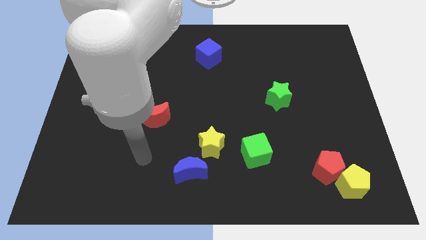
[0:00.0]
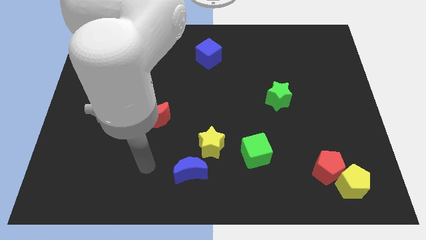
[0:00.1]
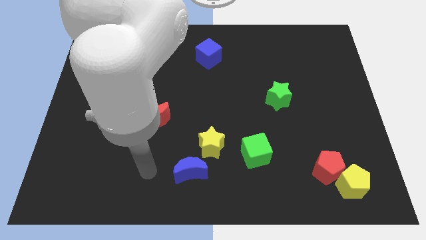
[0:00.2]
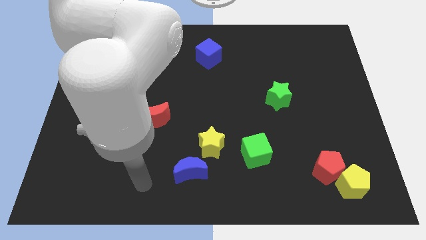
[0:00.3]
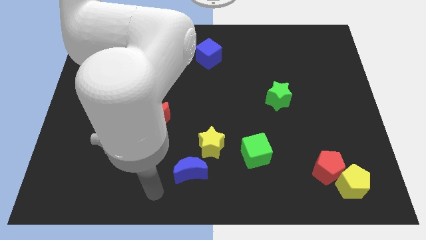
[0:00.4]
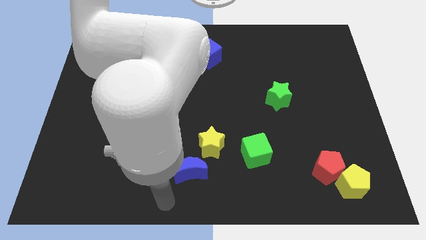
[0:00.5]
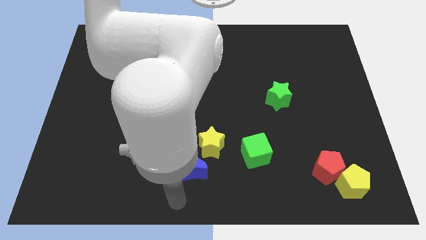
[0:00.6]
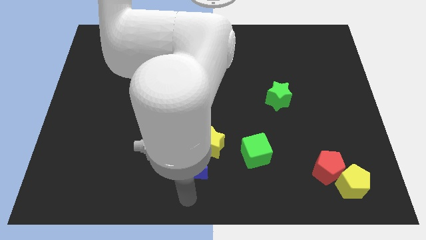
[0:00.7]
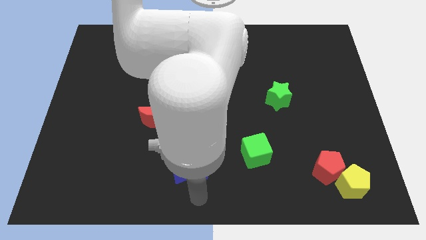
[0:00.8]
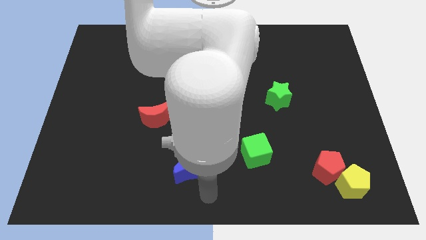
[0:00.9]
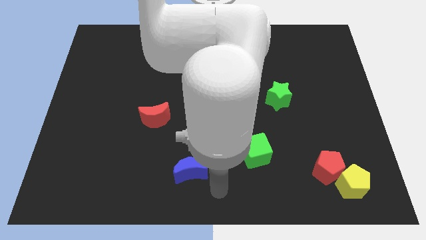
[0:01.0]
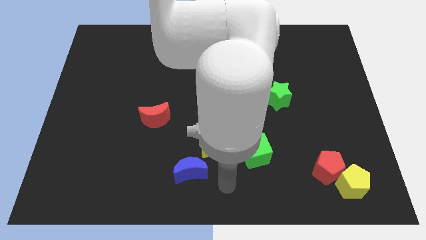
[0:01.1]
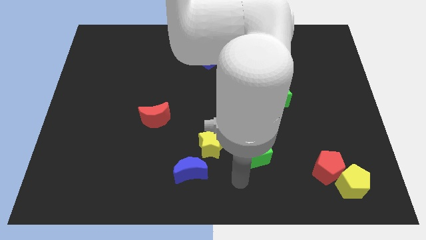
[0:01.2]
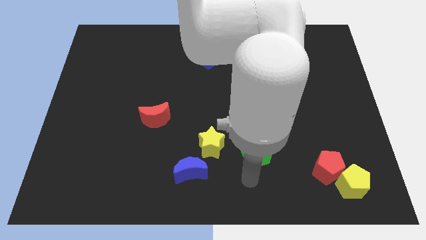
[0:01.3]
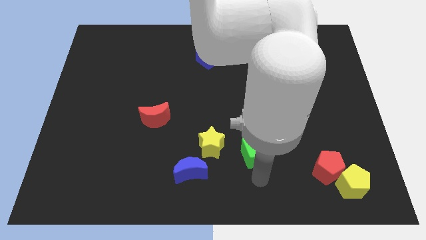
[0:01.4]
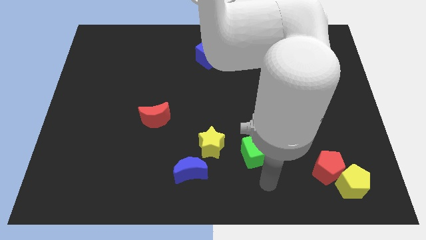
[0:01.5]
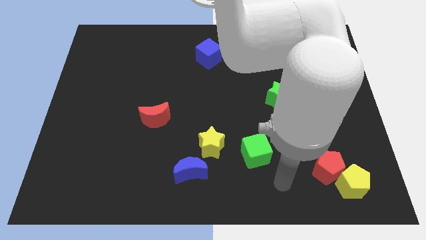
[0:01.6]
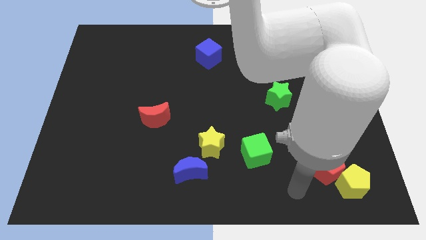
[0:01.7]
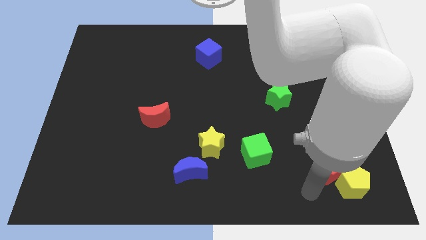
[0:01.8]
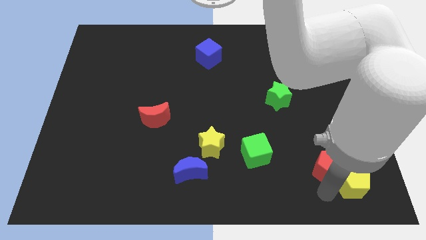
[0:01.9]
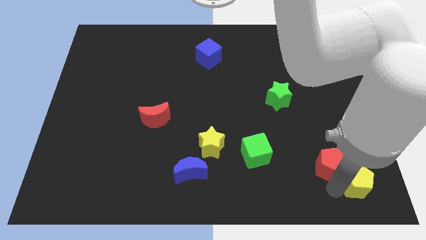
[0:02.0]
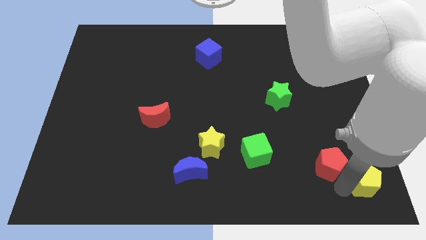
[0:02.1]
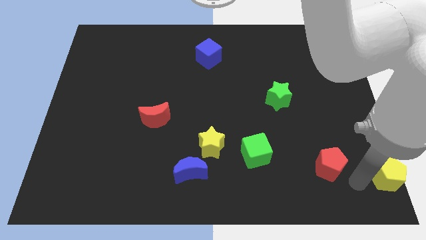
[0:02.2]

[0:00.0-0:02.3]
move the red pentagon away from the yellow pentagon

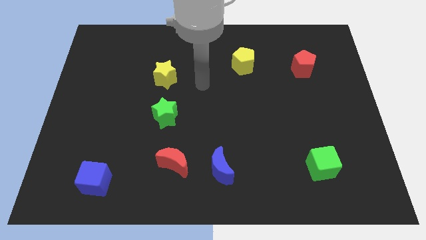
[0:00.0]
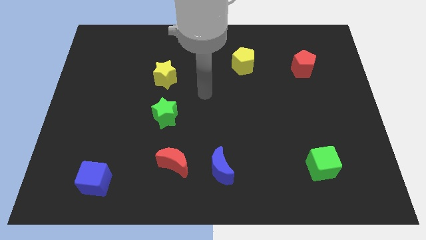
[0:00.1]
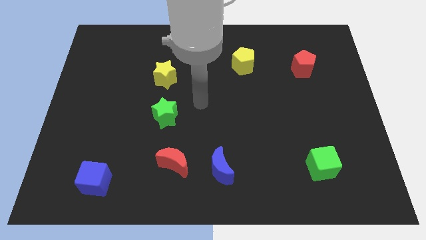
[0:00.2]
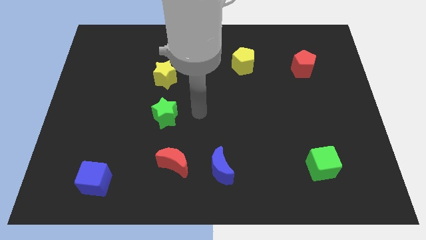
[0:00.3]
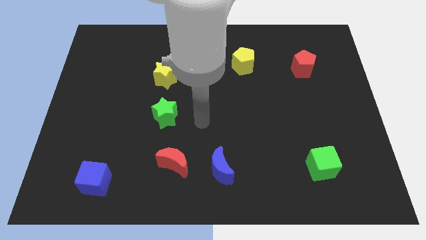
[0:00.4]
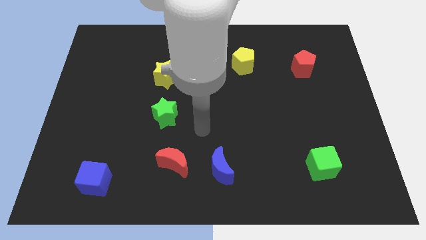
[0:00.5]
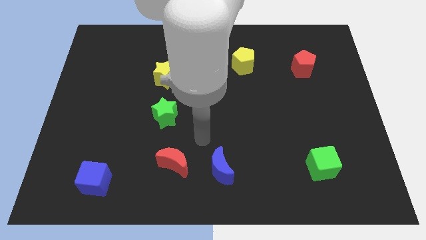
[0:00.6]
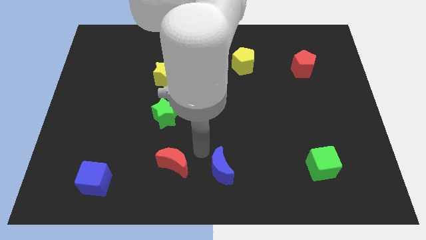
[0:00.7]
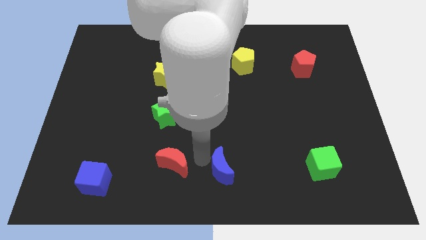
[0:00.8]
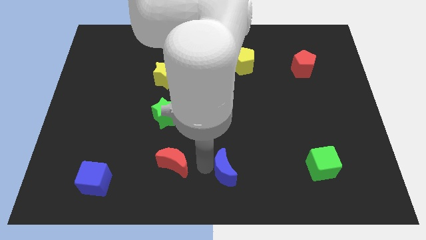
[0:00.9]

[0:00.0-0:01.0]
separate the red moon from the blue moon

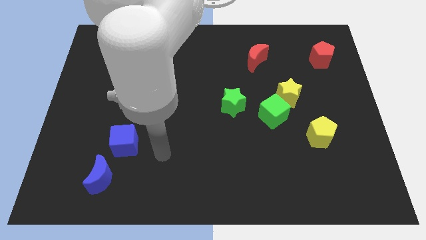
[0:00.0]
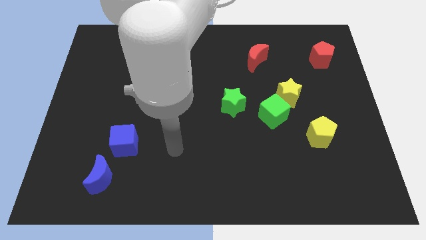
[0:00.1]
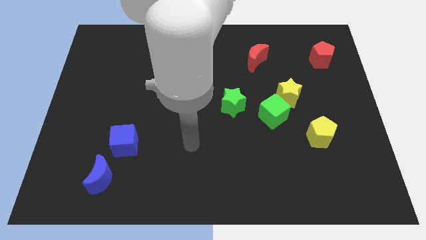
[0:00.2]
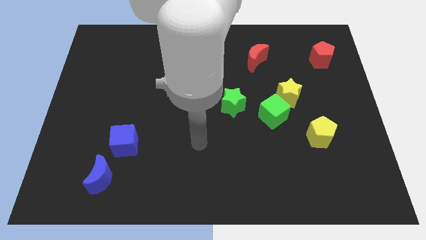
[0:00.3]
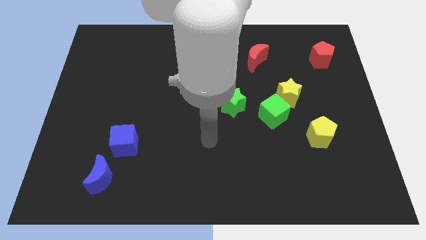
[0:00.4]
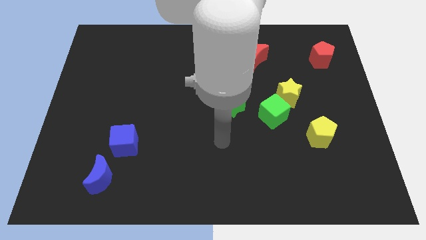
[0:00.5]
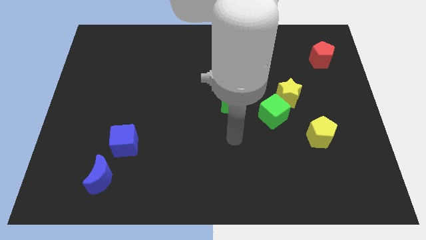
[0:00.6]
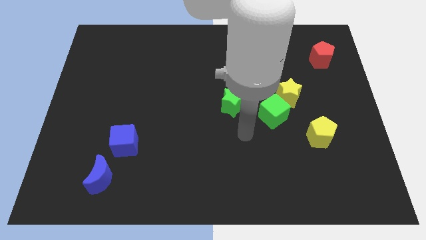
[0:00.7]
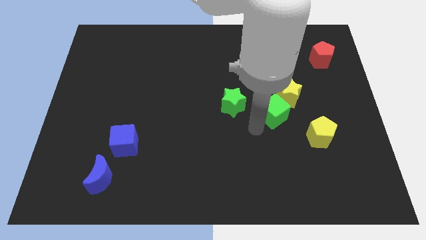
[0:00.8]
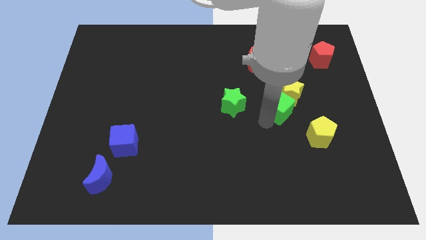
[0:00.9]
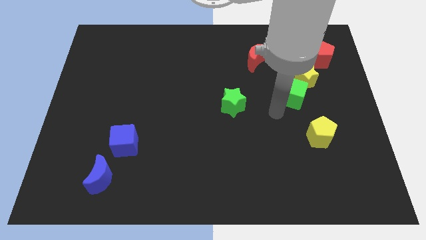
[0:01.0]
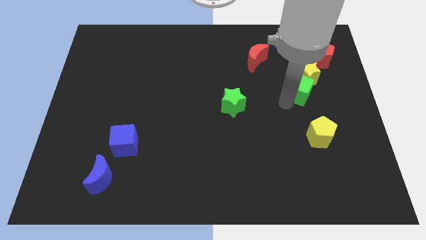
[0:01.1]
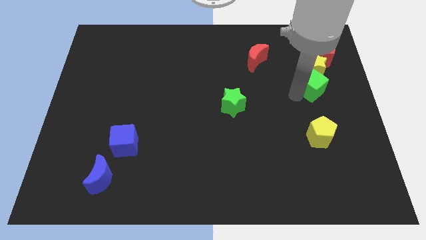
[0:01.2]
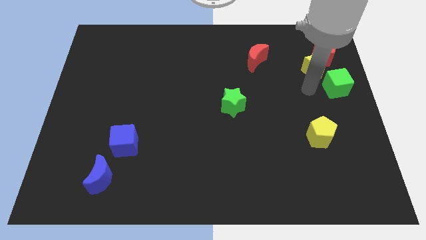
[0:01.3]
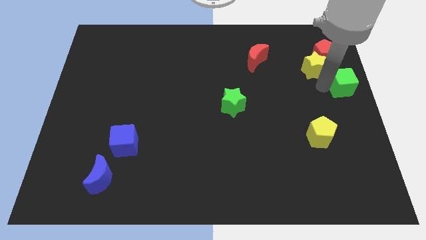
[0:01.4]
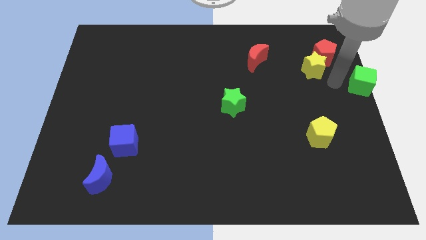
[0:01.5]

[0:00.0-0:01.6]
move the yellow star away from the green cube

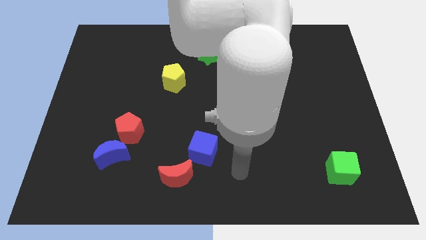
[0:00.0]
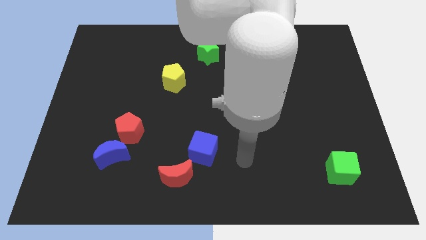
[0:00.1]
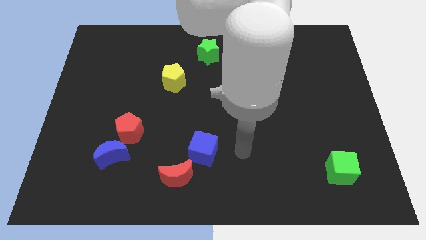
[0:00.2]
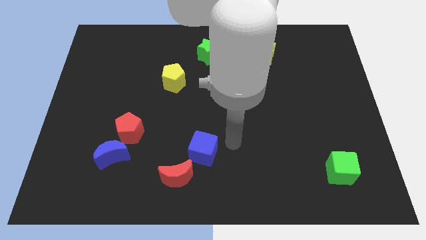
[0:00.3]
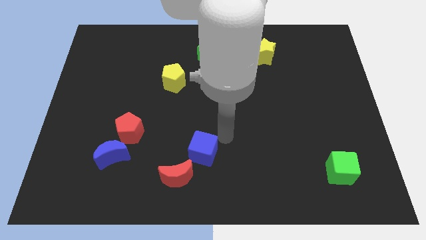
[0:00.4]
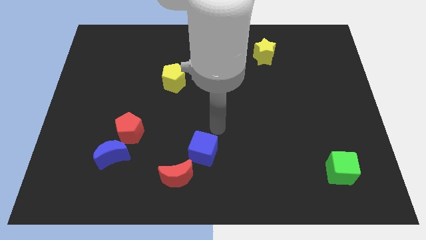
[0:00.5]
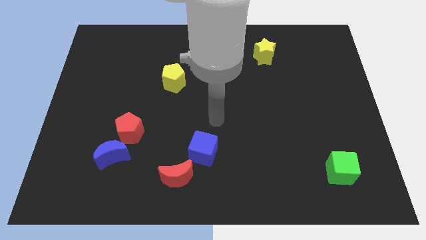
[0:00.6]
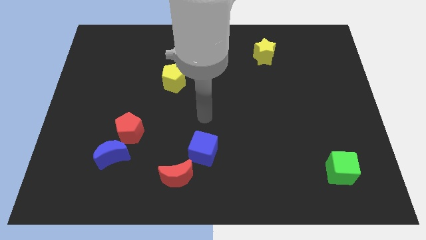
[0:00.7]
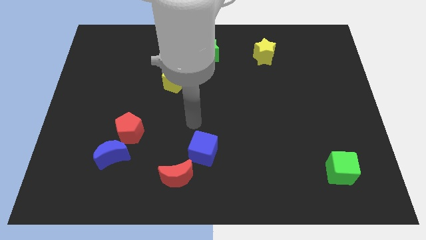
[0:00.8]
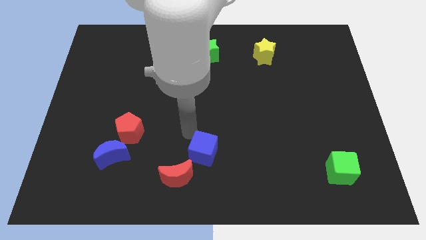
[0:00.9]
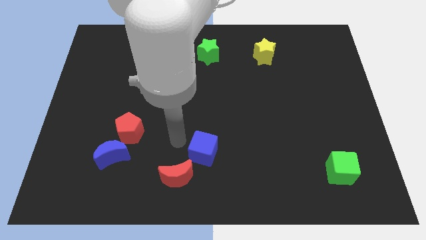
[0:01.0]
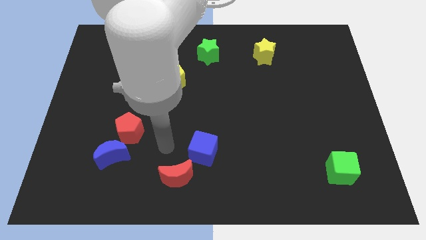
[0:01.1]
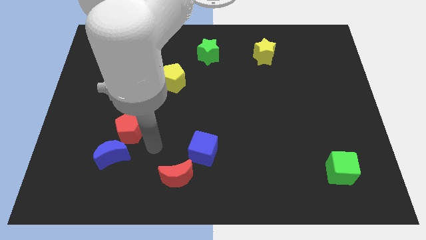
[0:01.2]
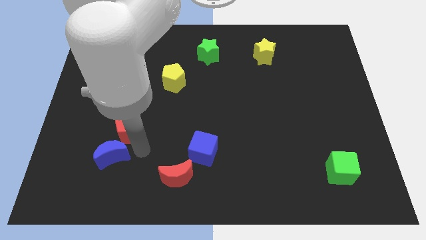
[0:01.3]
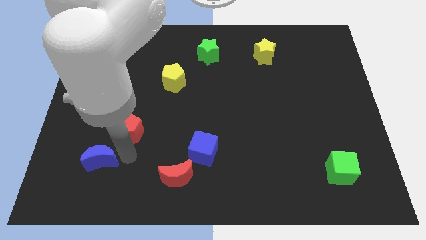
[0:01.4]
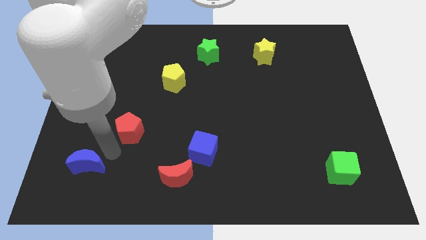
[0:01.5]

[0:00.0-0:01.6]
pull the red pentagon apart from the blue moon

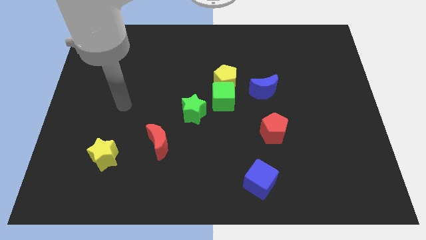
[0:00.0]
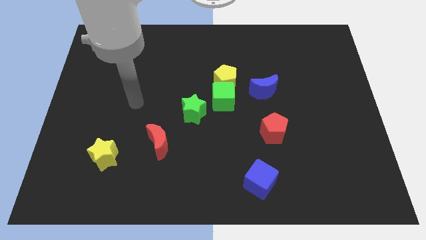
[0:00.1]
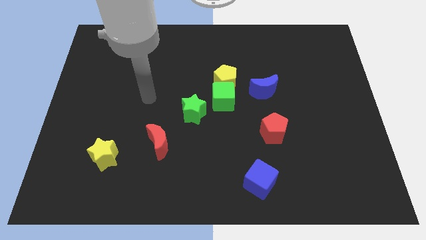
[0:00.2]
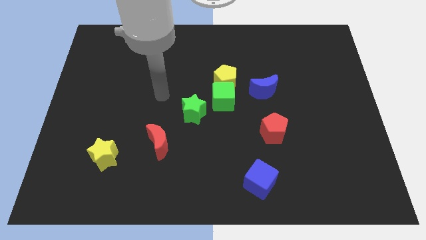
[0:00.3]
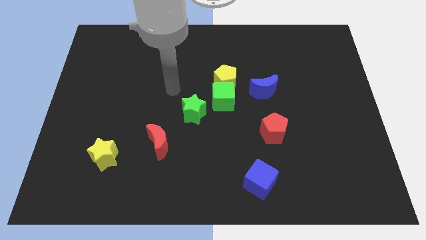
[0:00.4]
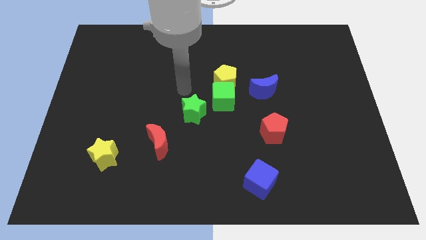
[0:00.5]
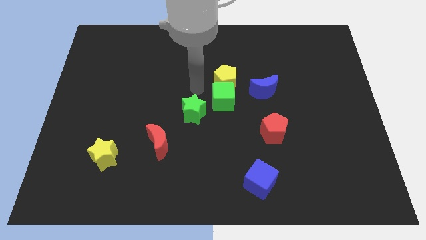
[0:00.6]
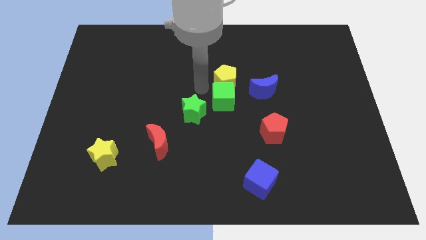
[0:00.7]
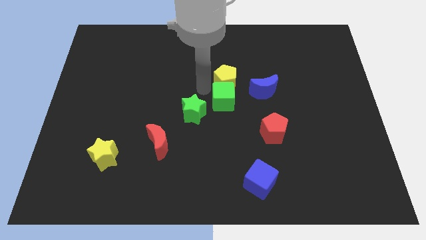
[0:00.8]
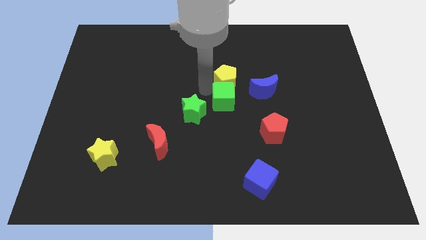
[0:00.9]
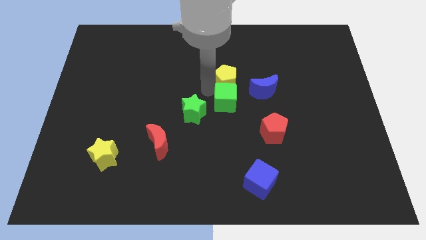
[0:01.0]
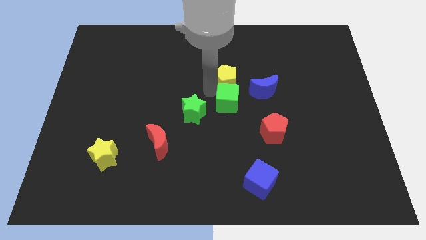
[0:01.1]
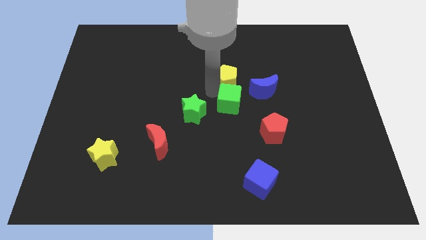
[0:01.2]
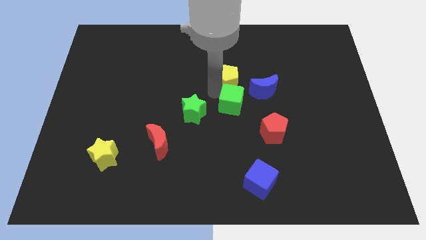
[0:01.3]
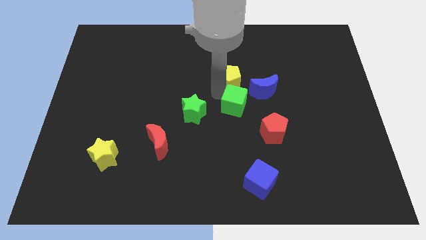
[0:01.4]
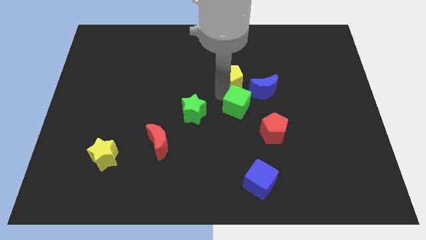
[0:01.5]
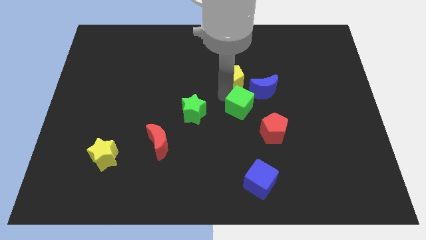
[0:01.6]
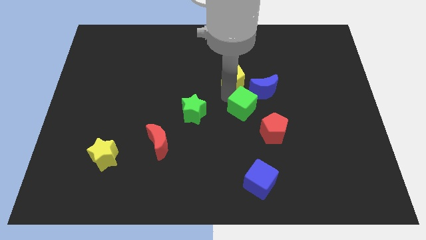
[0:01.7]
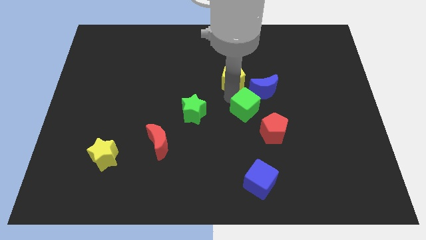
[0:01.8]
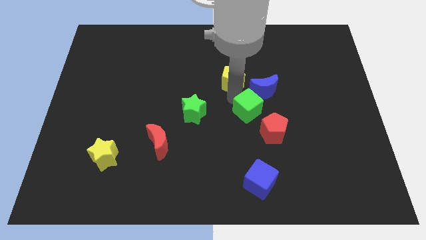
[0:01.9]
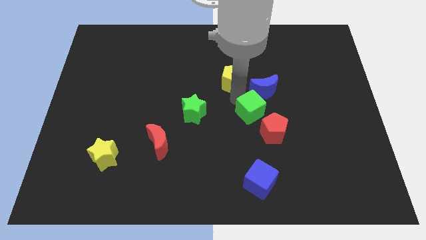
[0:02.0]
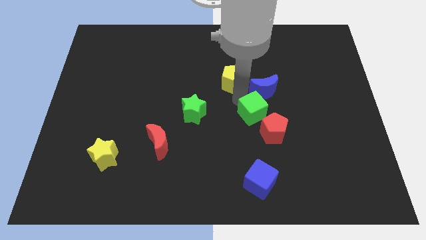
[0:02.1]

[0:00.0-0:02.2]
separate the green cube from the yellow pentagon and green star

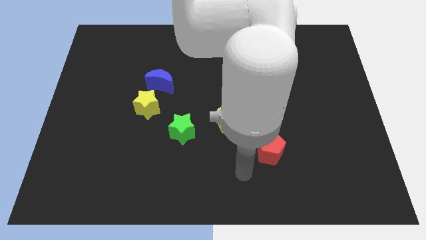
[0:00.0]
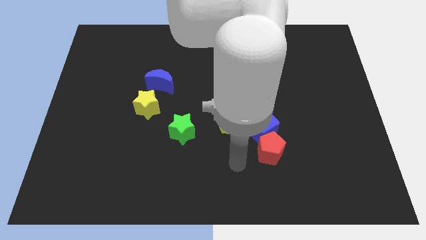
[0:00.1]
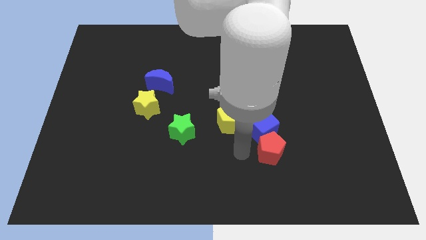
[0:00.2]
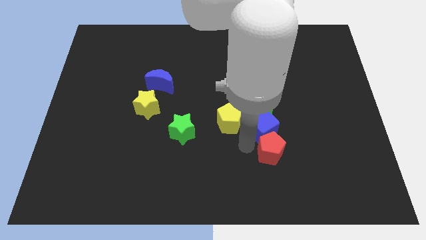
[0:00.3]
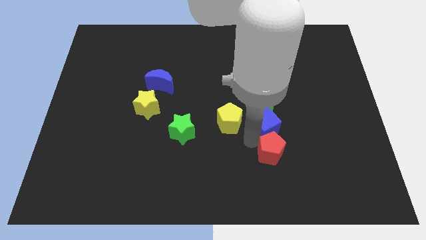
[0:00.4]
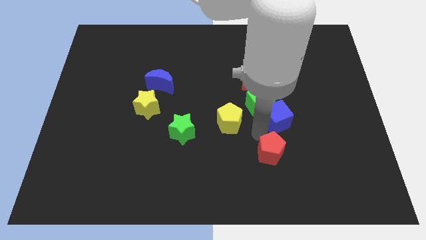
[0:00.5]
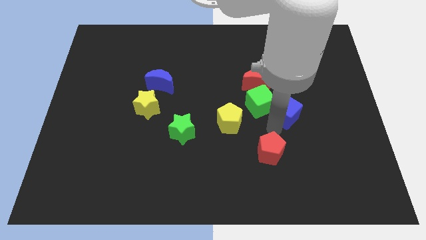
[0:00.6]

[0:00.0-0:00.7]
pull the red pentagon apart from the blue cube
